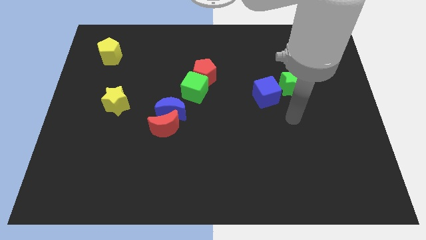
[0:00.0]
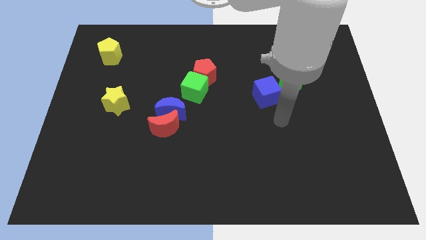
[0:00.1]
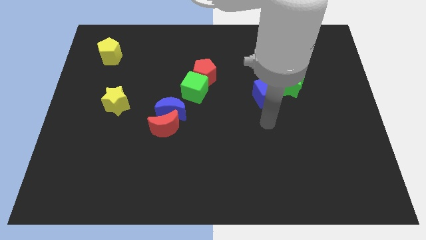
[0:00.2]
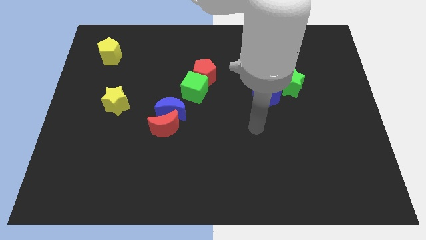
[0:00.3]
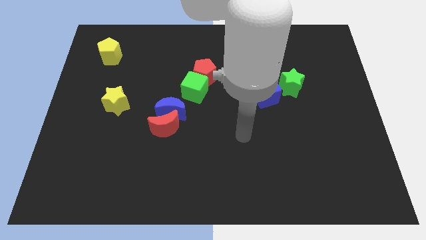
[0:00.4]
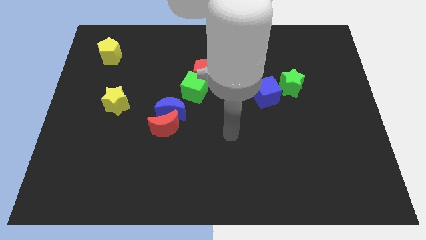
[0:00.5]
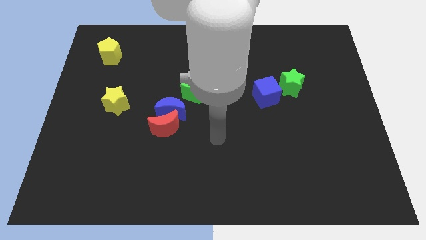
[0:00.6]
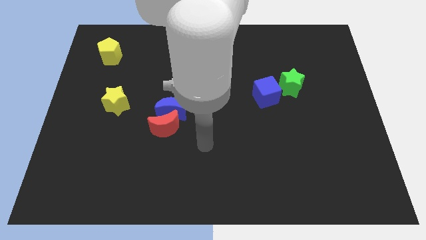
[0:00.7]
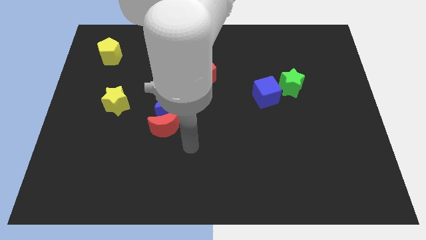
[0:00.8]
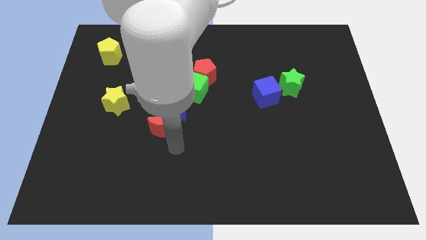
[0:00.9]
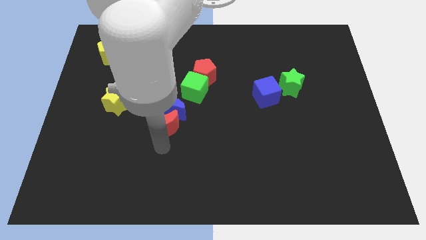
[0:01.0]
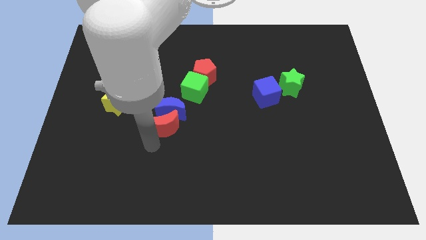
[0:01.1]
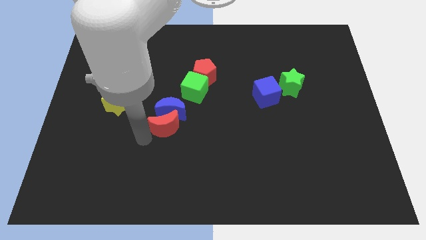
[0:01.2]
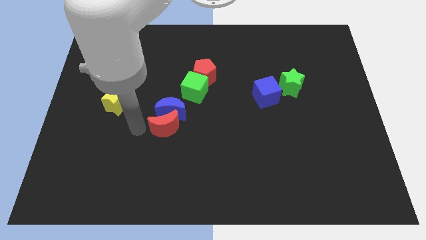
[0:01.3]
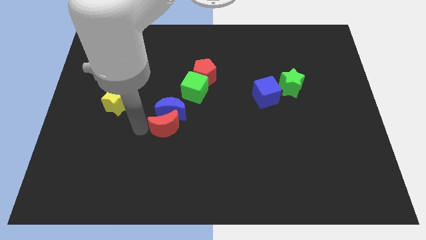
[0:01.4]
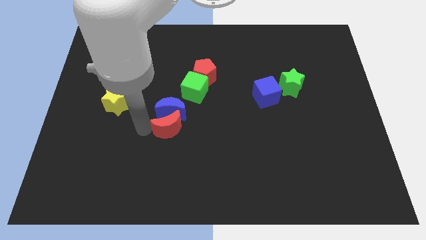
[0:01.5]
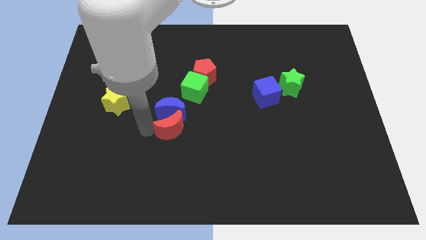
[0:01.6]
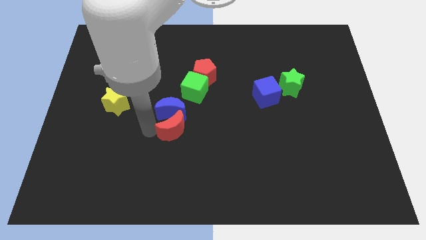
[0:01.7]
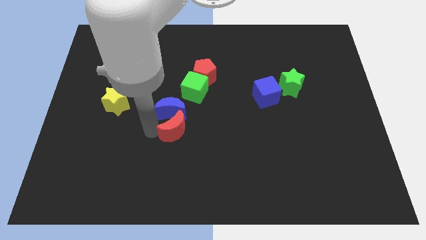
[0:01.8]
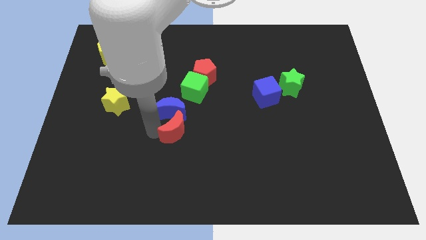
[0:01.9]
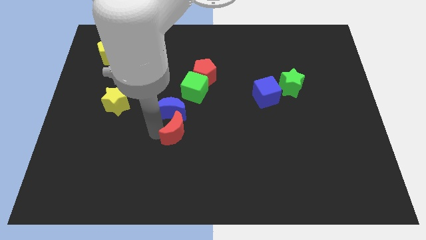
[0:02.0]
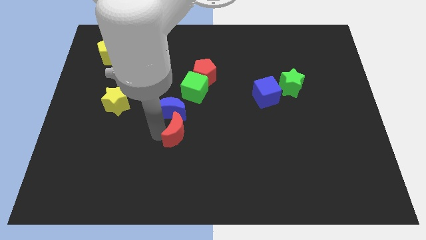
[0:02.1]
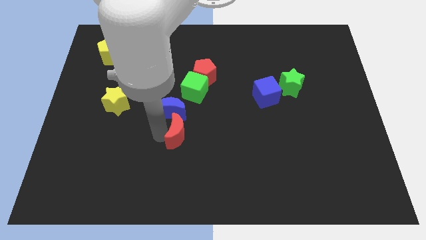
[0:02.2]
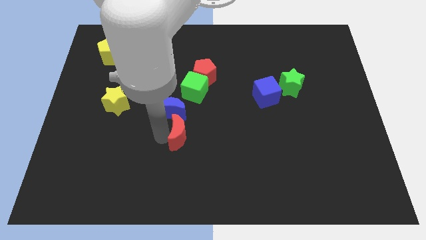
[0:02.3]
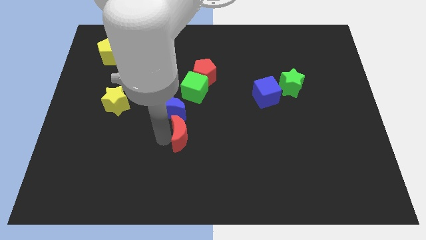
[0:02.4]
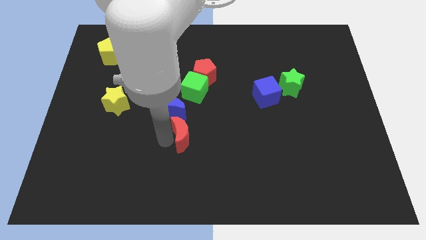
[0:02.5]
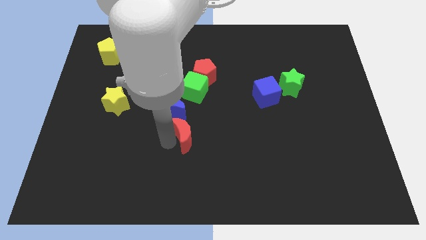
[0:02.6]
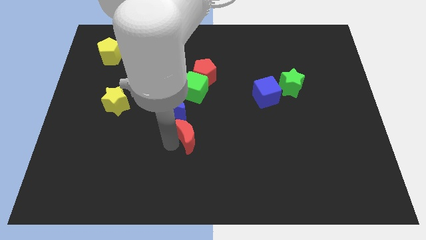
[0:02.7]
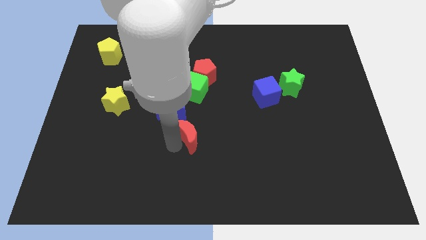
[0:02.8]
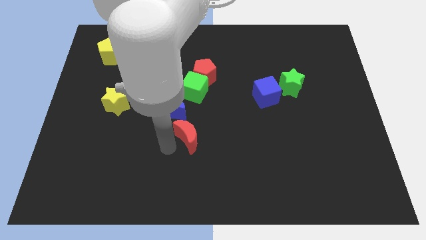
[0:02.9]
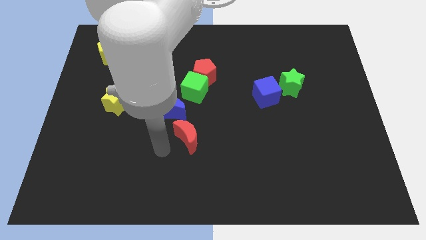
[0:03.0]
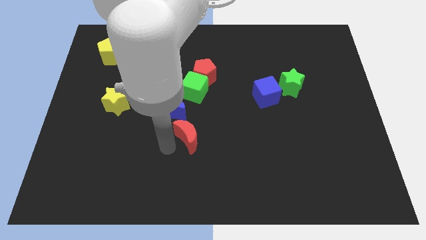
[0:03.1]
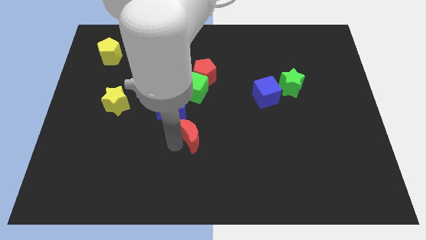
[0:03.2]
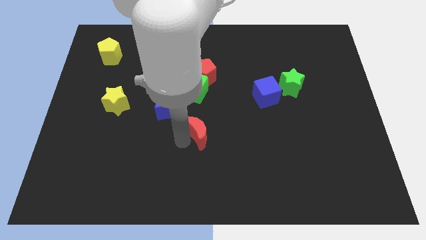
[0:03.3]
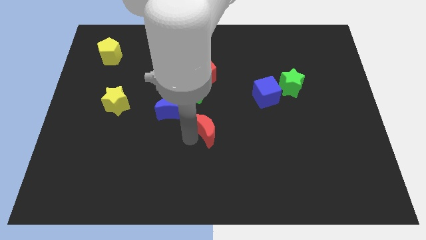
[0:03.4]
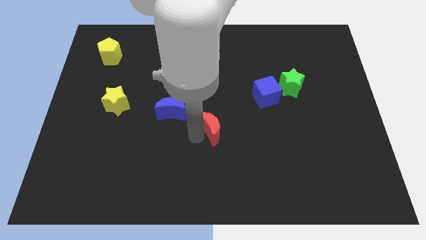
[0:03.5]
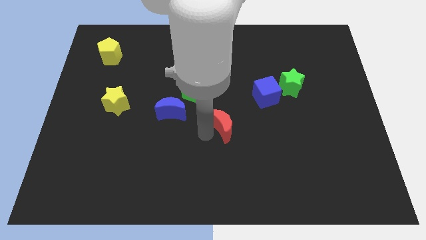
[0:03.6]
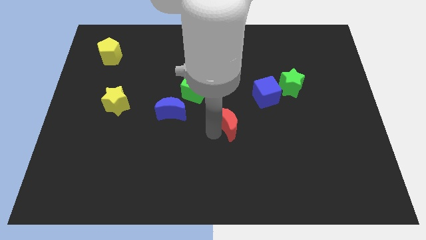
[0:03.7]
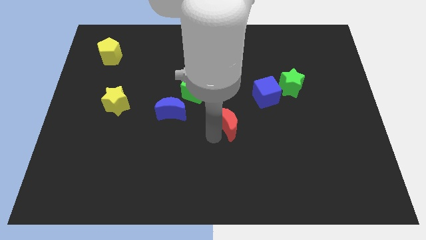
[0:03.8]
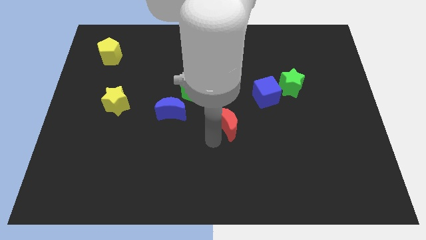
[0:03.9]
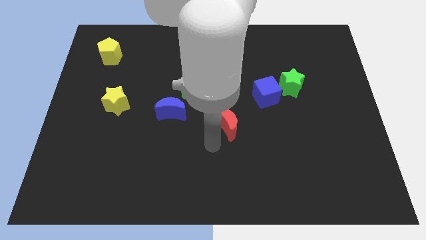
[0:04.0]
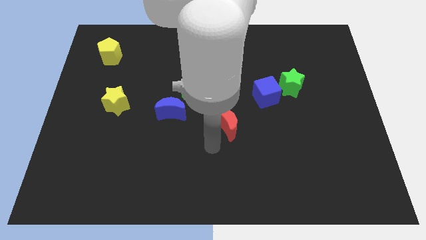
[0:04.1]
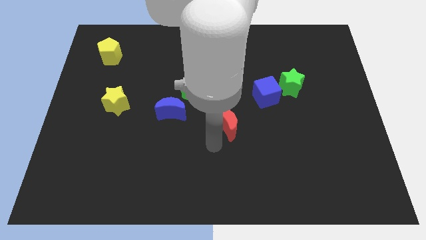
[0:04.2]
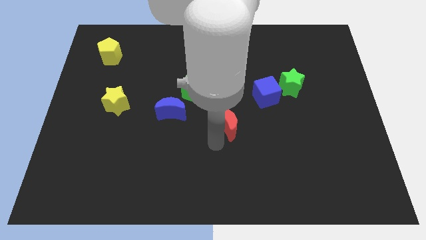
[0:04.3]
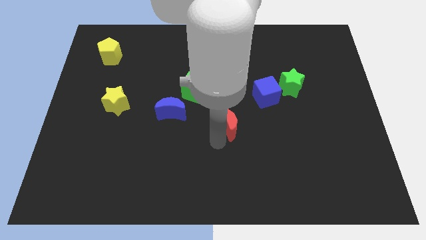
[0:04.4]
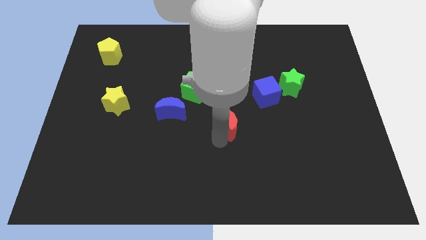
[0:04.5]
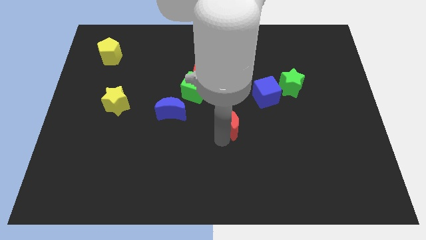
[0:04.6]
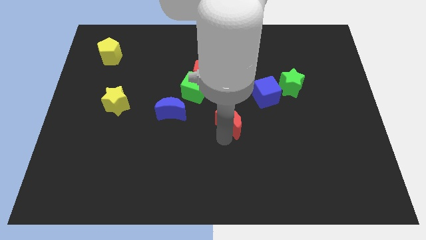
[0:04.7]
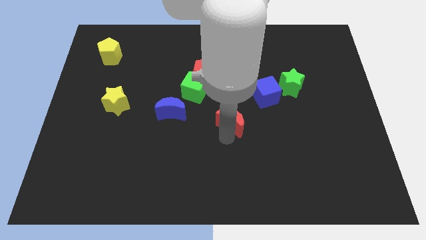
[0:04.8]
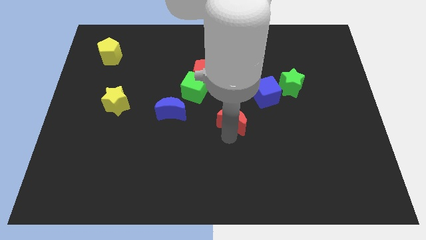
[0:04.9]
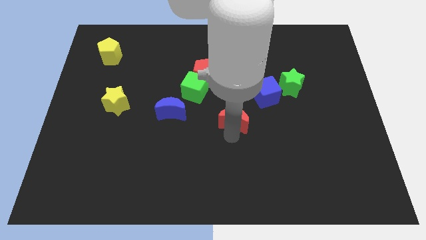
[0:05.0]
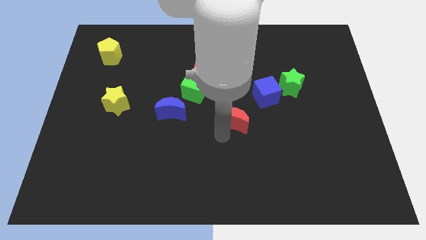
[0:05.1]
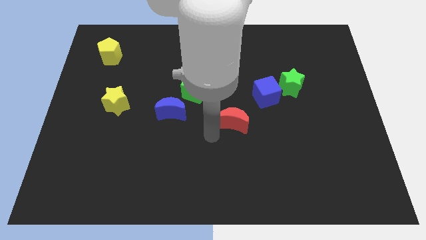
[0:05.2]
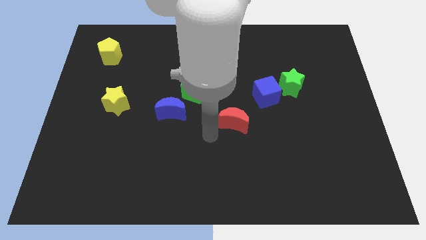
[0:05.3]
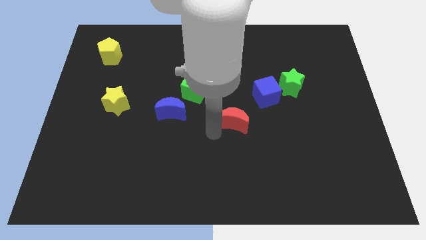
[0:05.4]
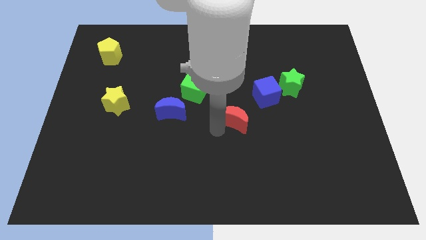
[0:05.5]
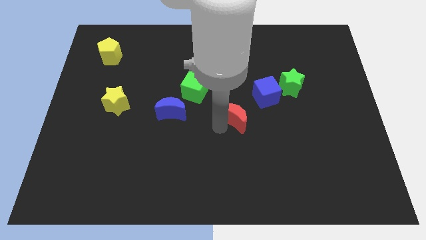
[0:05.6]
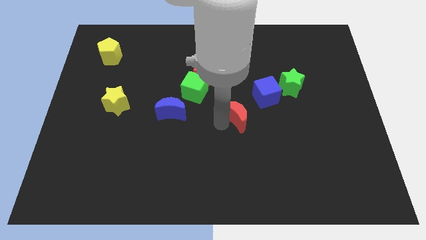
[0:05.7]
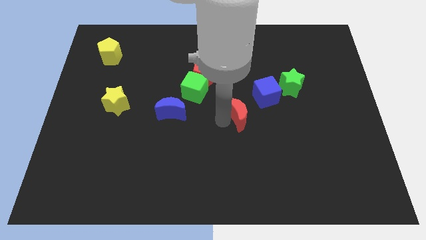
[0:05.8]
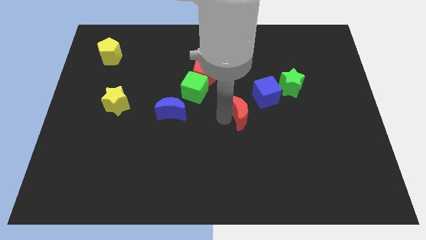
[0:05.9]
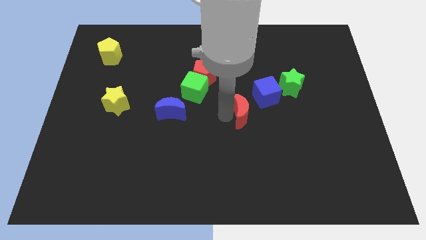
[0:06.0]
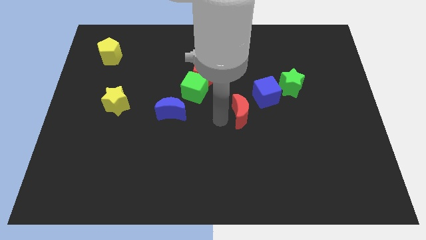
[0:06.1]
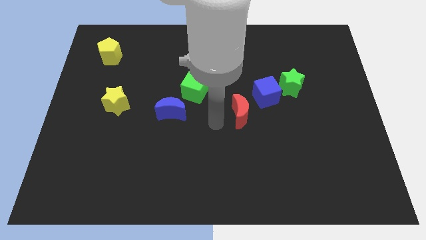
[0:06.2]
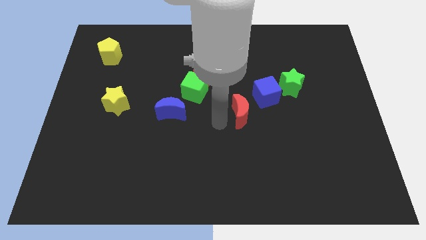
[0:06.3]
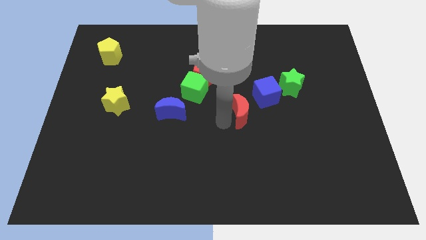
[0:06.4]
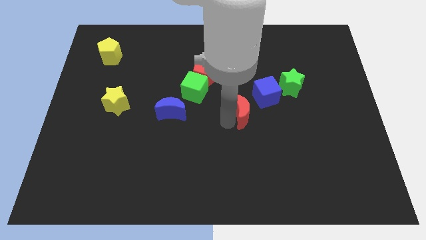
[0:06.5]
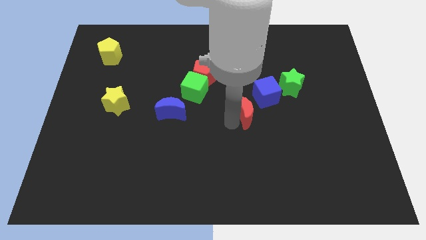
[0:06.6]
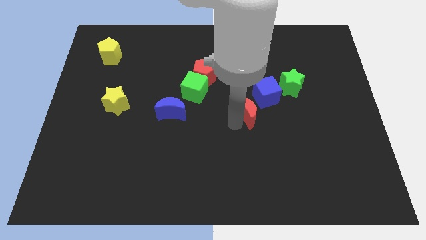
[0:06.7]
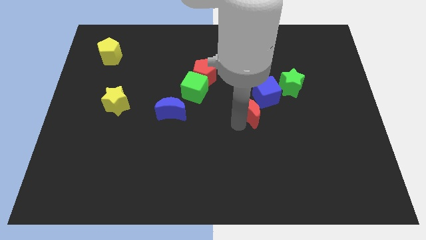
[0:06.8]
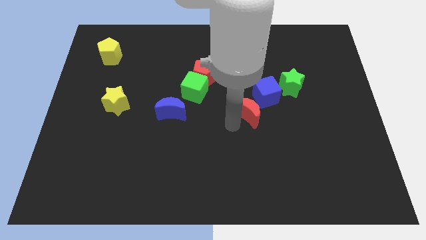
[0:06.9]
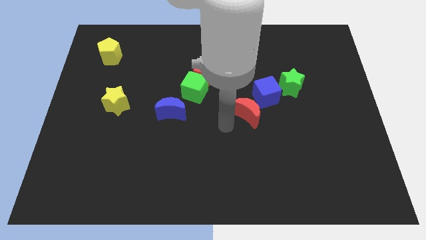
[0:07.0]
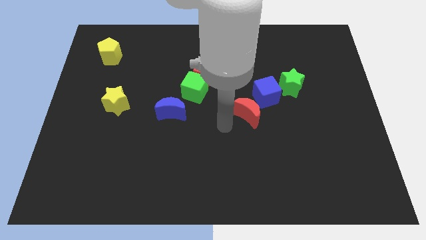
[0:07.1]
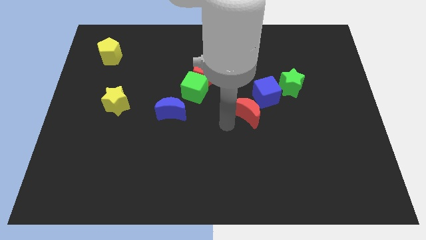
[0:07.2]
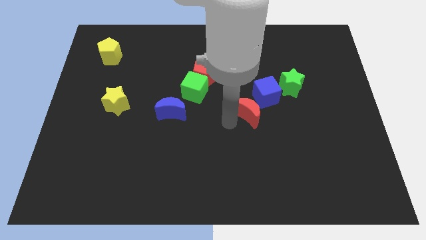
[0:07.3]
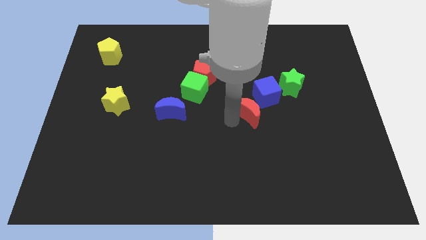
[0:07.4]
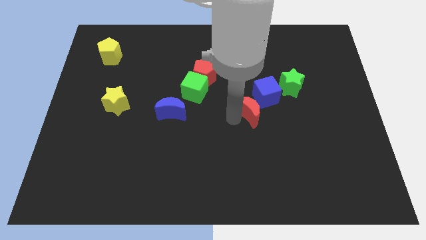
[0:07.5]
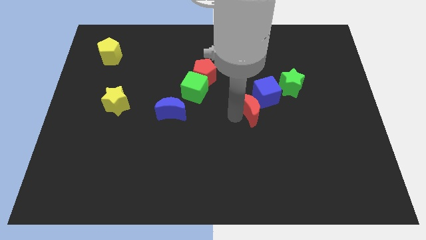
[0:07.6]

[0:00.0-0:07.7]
move the red moon to the bottom left of the green star
